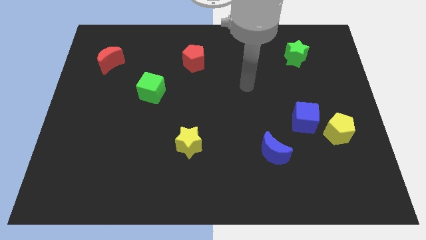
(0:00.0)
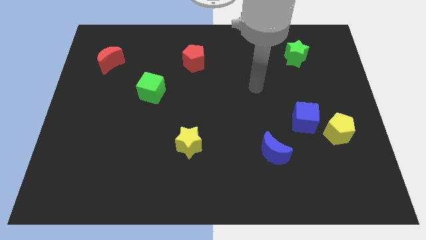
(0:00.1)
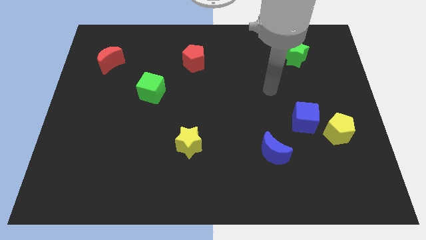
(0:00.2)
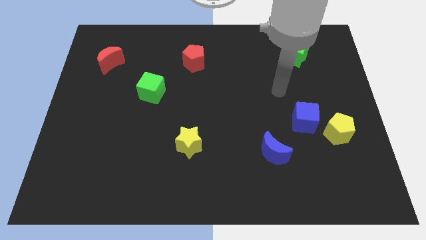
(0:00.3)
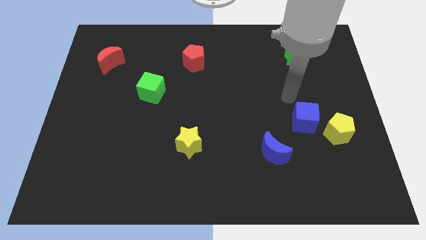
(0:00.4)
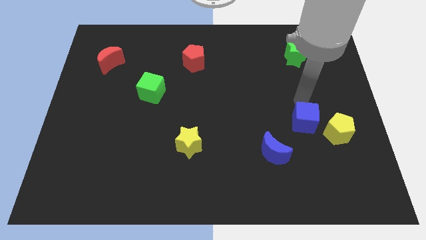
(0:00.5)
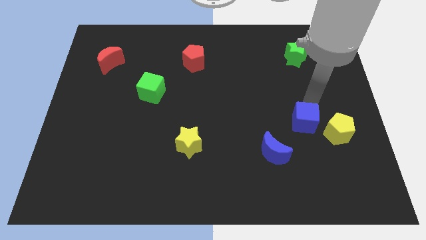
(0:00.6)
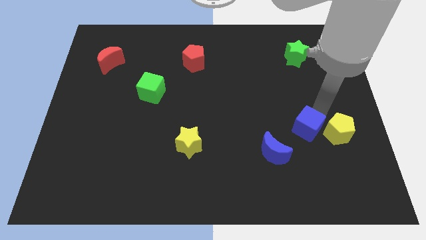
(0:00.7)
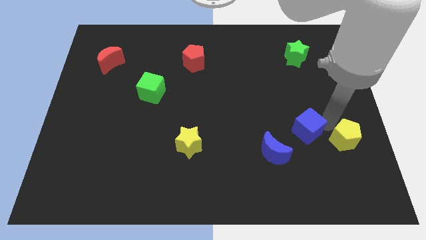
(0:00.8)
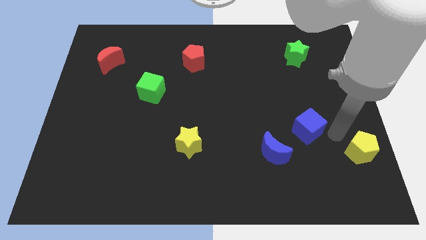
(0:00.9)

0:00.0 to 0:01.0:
move the blue cube away from the yellow pentagon

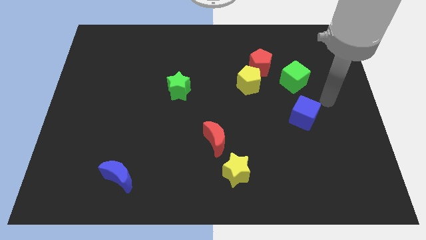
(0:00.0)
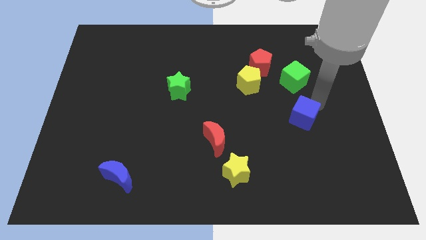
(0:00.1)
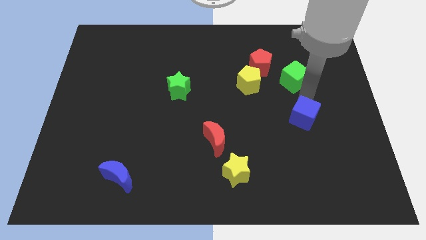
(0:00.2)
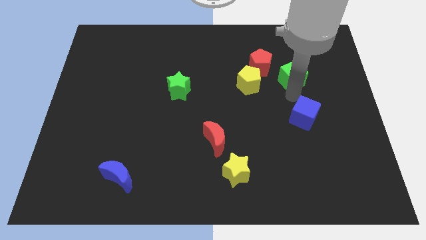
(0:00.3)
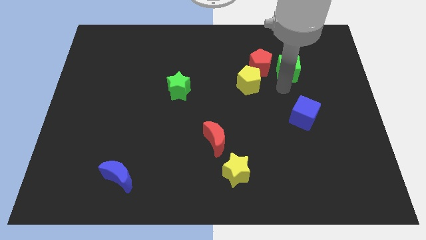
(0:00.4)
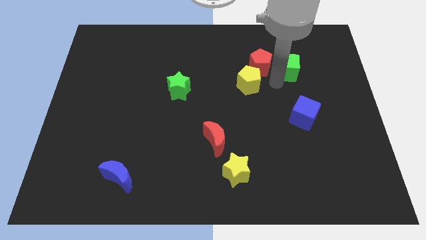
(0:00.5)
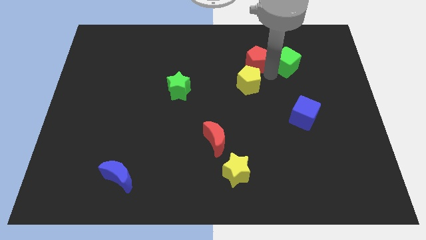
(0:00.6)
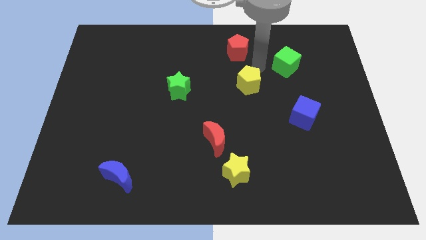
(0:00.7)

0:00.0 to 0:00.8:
separate the yellow pentagon from the red pentagon

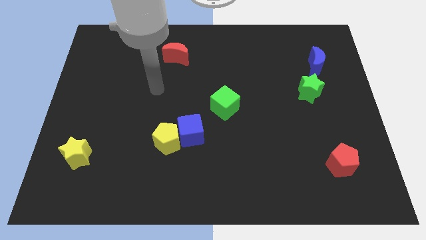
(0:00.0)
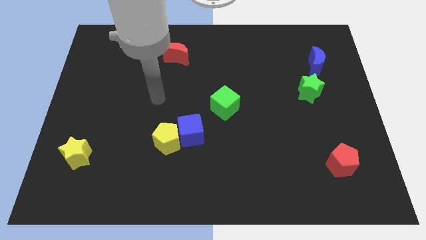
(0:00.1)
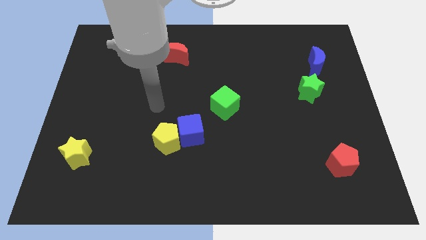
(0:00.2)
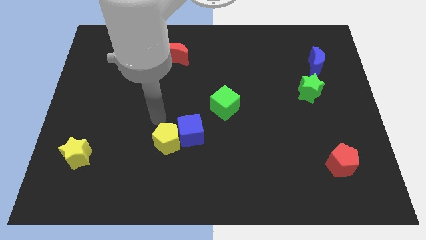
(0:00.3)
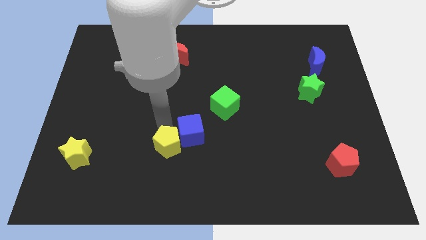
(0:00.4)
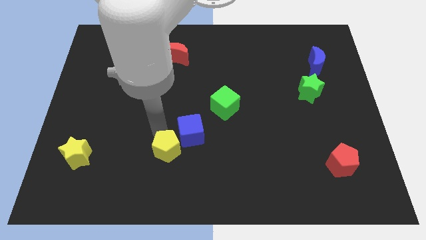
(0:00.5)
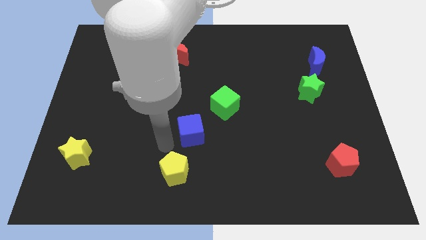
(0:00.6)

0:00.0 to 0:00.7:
pull the blue cube apart from the yellow pentagon

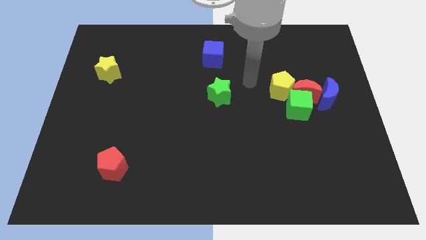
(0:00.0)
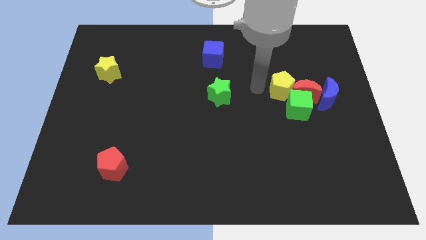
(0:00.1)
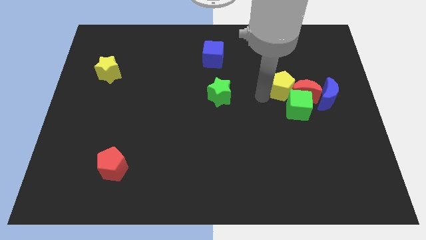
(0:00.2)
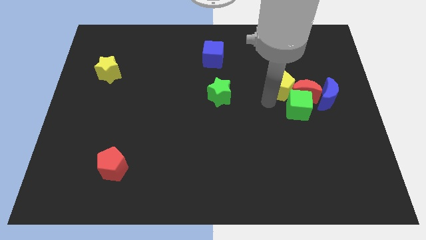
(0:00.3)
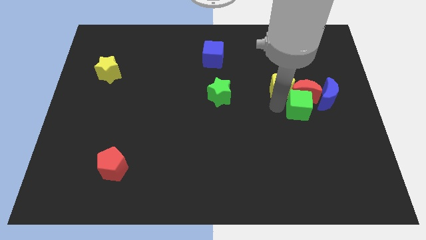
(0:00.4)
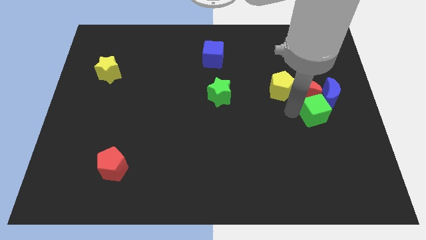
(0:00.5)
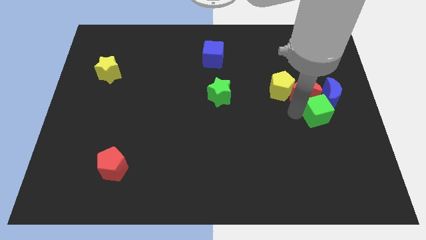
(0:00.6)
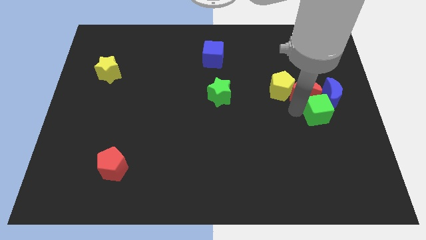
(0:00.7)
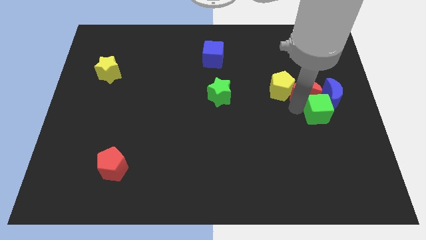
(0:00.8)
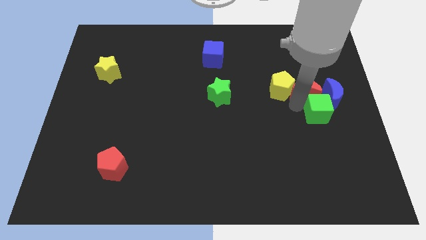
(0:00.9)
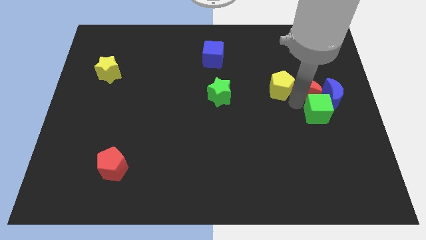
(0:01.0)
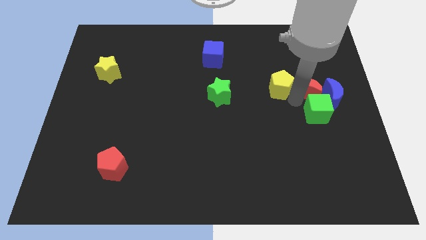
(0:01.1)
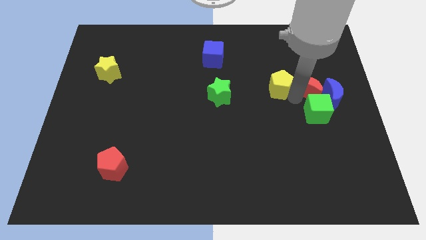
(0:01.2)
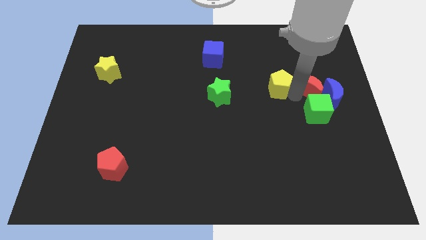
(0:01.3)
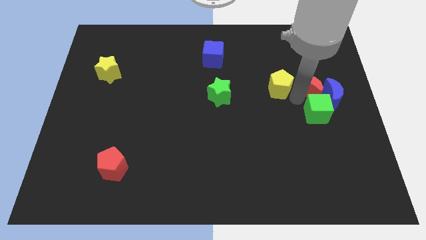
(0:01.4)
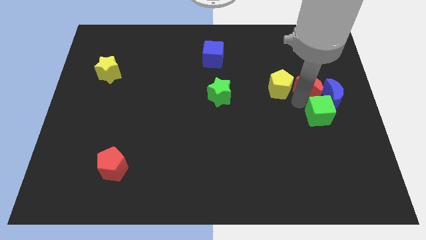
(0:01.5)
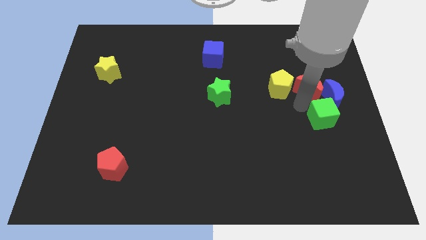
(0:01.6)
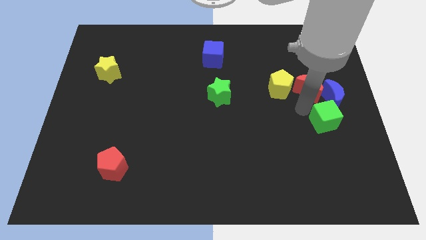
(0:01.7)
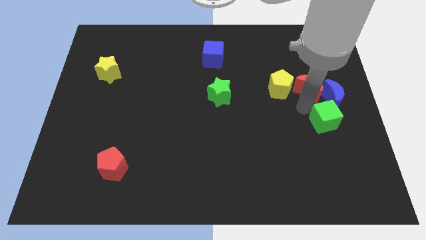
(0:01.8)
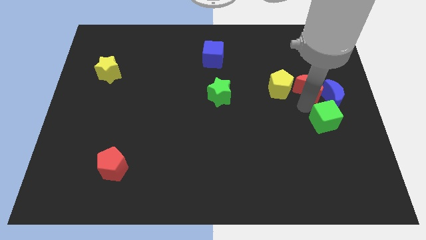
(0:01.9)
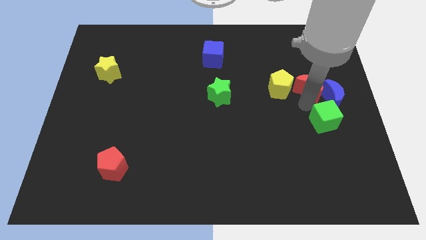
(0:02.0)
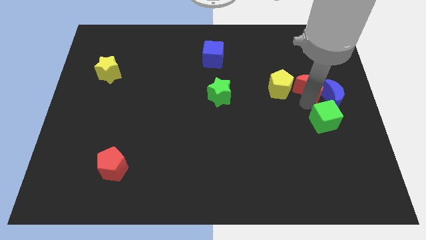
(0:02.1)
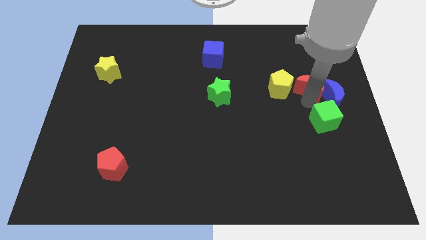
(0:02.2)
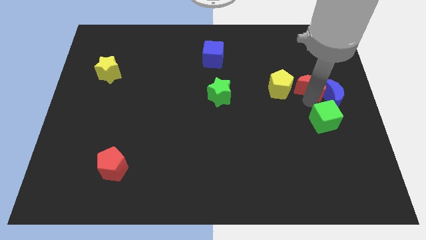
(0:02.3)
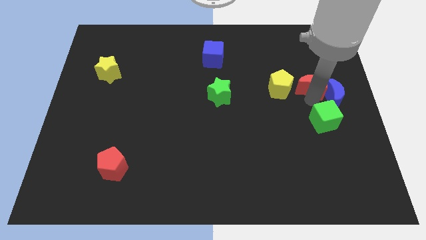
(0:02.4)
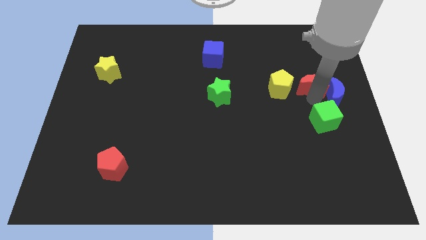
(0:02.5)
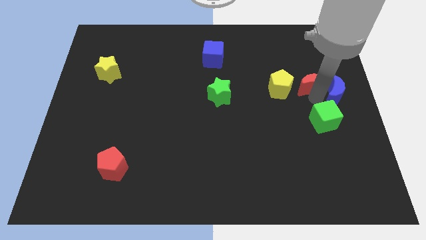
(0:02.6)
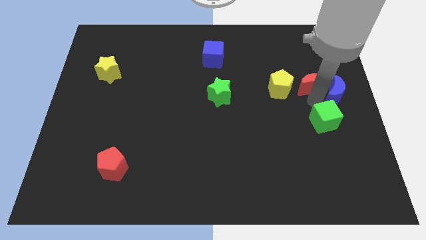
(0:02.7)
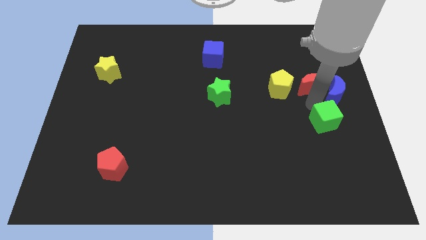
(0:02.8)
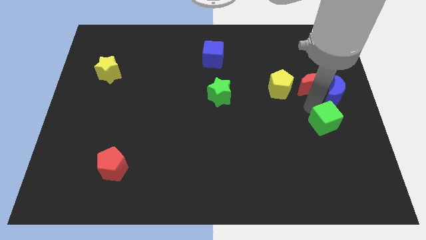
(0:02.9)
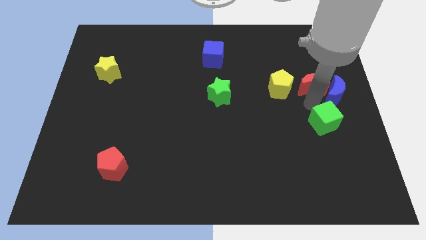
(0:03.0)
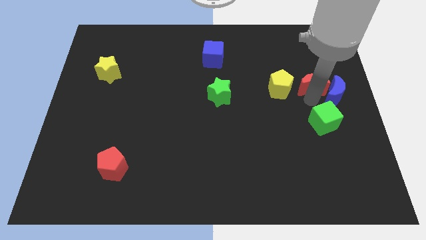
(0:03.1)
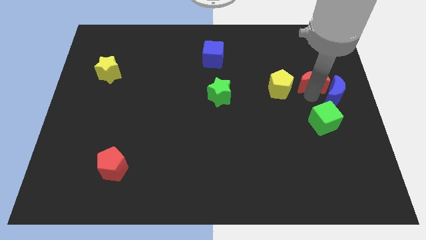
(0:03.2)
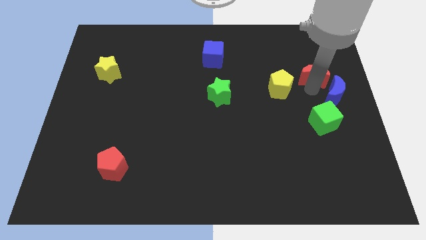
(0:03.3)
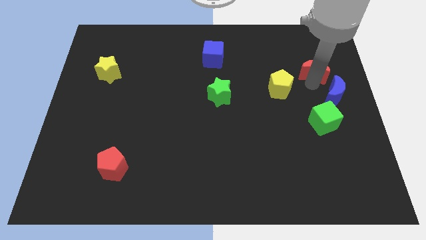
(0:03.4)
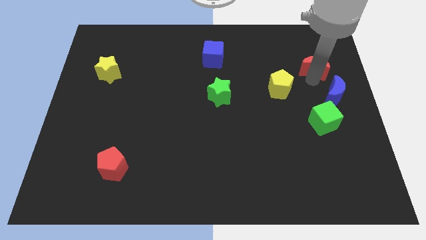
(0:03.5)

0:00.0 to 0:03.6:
pull the red moon apart from the group of blocks

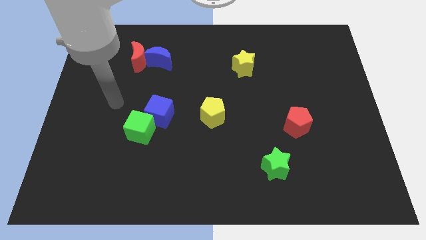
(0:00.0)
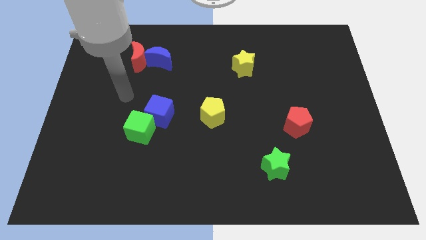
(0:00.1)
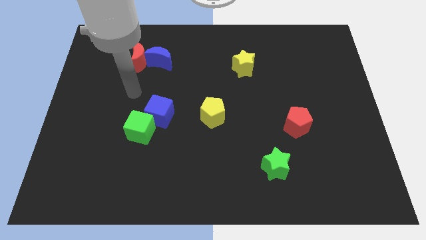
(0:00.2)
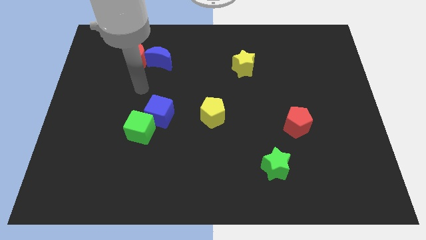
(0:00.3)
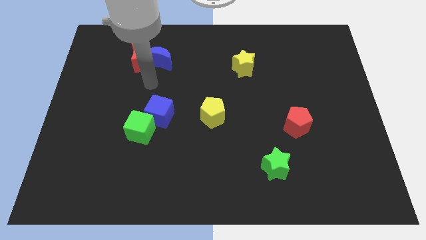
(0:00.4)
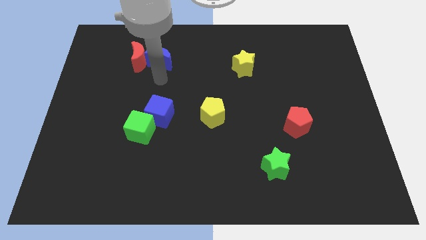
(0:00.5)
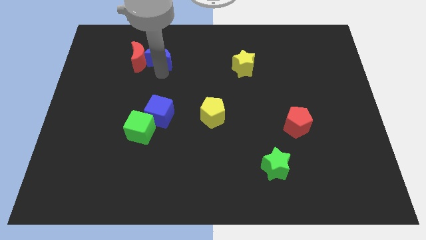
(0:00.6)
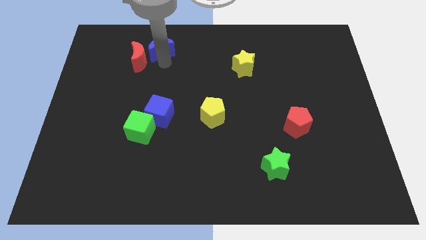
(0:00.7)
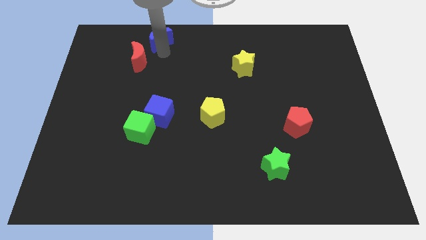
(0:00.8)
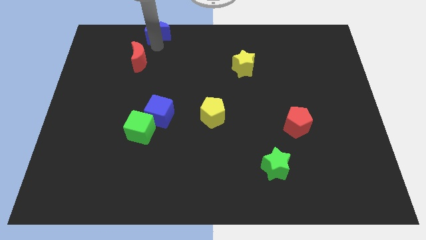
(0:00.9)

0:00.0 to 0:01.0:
move the red moon away from the blue moon

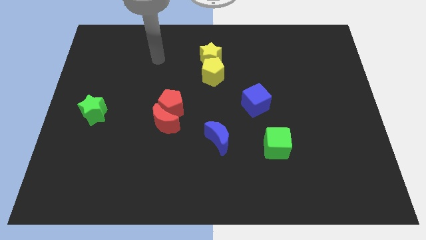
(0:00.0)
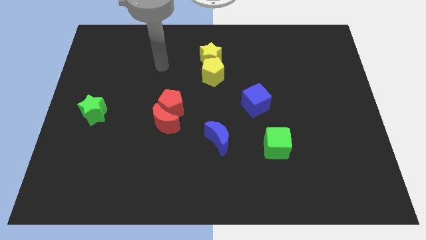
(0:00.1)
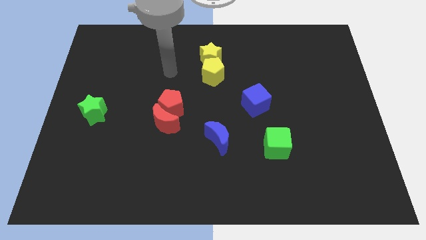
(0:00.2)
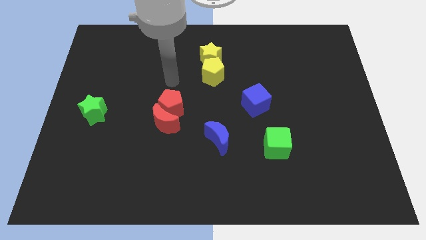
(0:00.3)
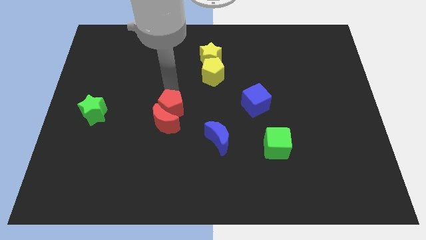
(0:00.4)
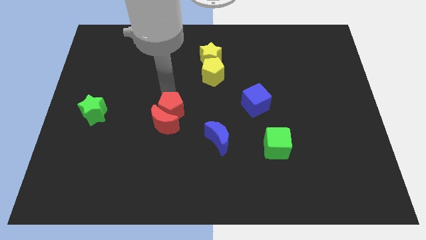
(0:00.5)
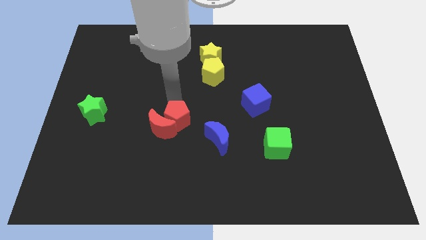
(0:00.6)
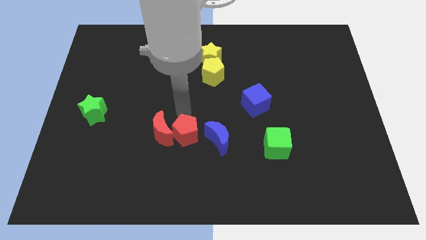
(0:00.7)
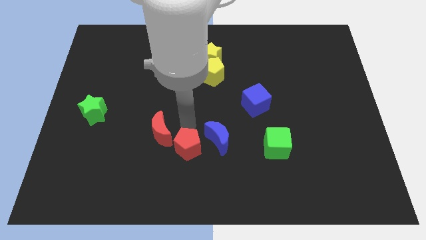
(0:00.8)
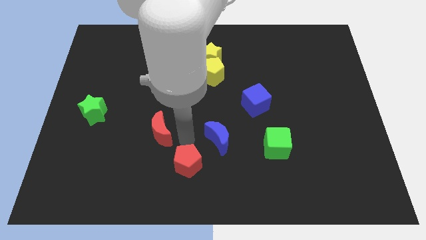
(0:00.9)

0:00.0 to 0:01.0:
separate the red moon from the red pentagon

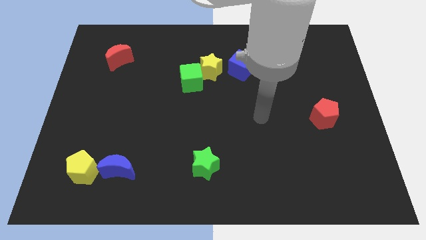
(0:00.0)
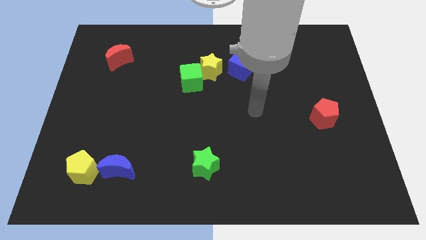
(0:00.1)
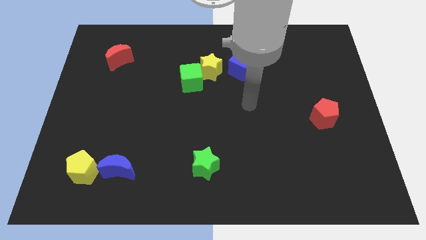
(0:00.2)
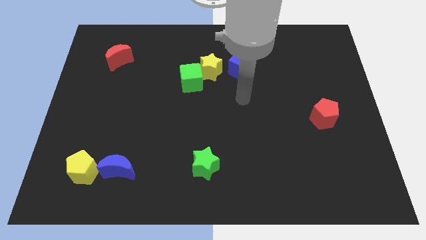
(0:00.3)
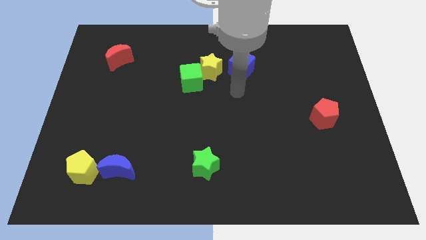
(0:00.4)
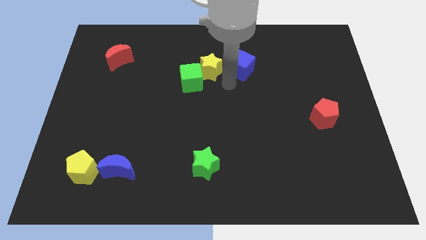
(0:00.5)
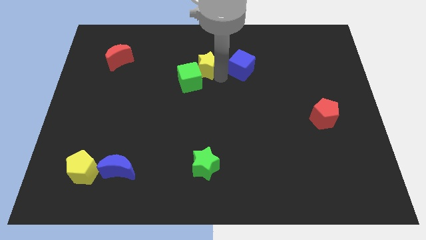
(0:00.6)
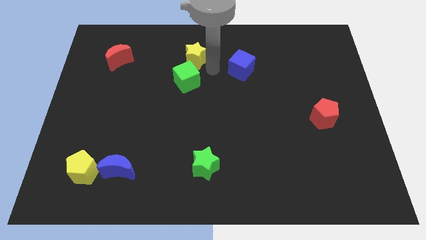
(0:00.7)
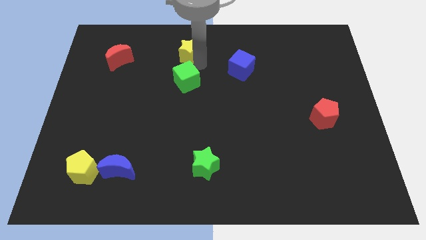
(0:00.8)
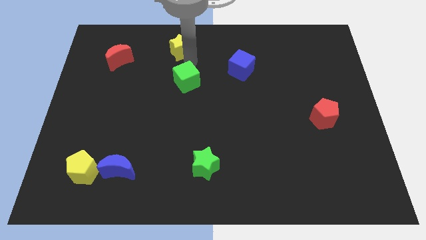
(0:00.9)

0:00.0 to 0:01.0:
move the green cube away from the yellow star

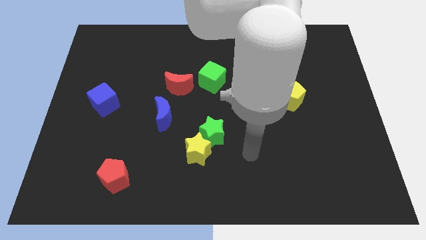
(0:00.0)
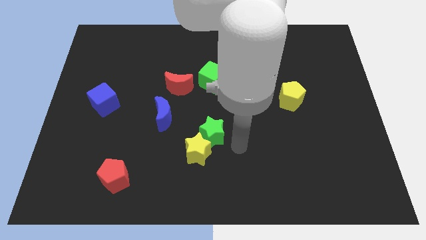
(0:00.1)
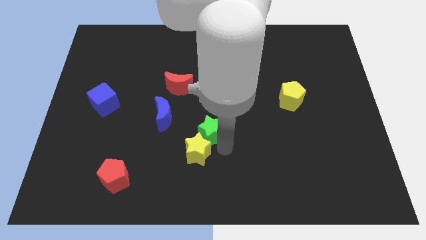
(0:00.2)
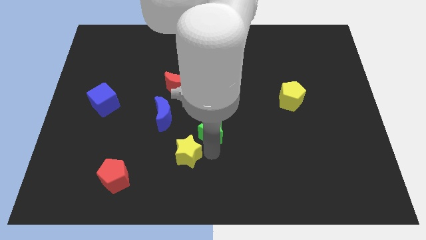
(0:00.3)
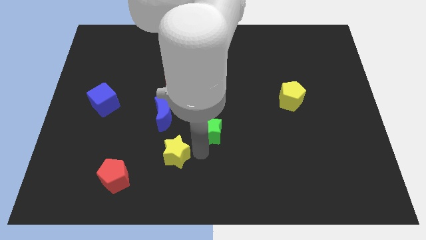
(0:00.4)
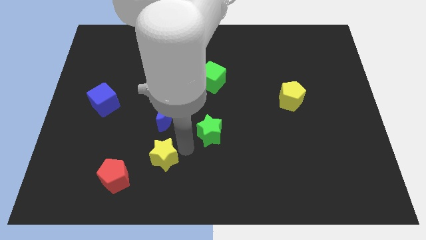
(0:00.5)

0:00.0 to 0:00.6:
move the green star away from the yellow star
